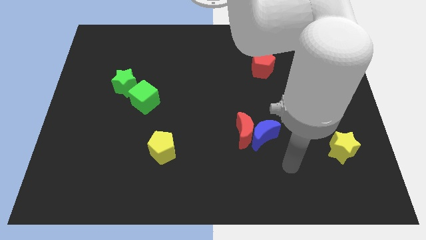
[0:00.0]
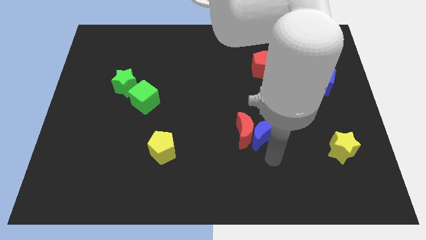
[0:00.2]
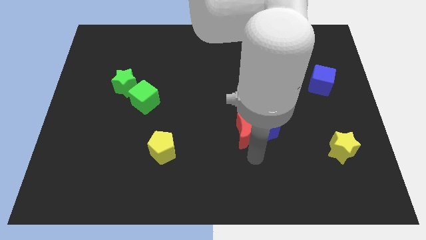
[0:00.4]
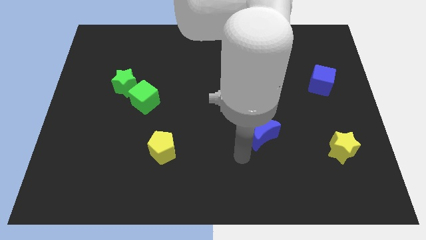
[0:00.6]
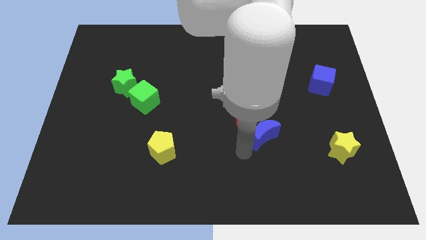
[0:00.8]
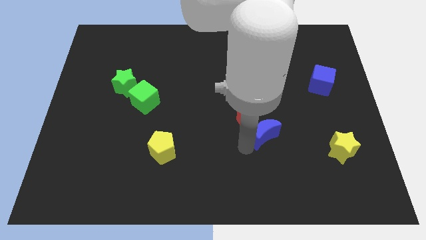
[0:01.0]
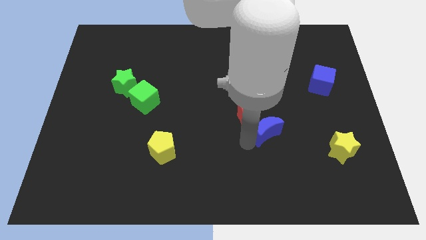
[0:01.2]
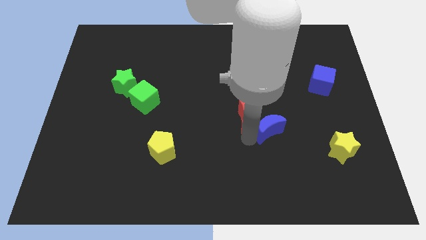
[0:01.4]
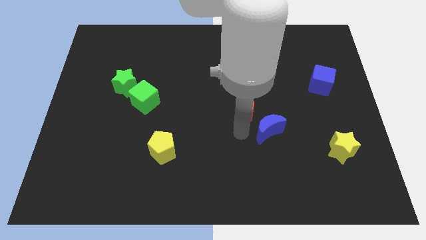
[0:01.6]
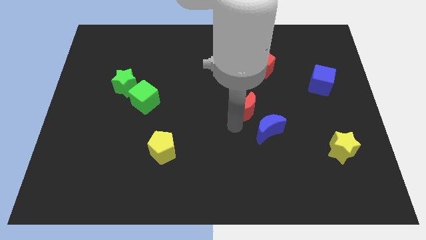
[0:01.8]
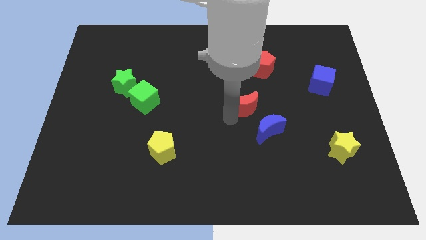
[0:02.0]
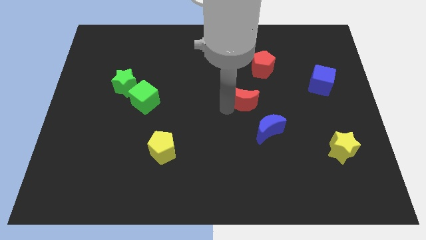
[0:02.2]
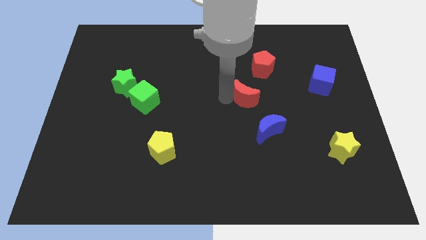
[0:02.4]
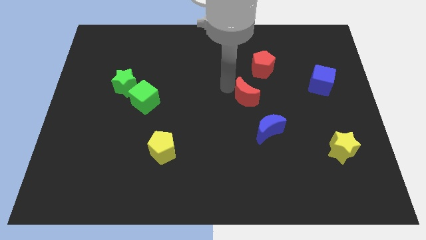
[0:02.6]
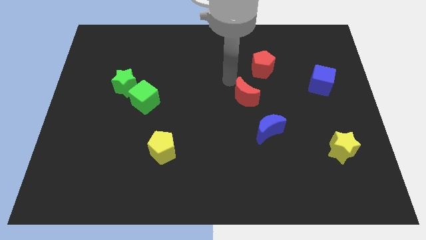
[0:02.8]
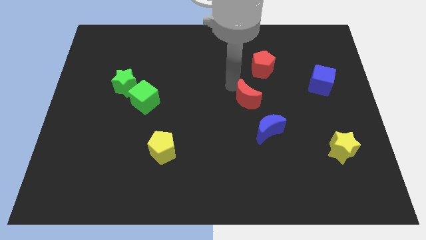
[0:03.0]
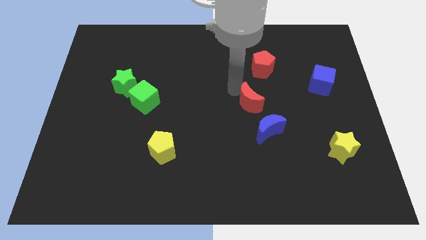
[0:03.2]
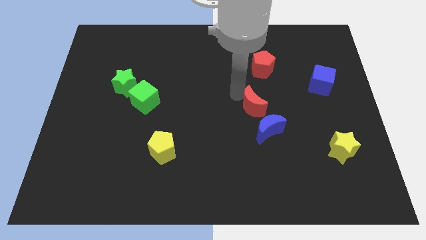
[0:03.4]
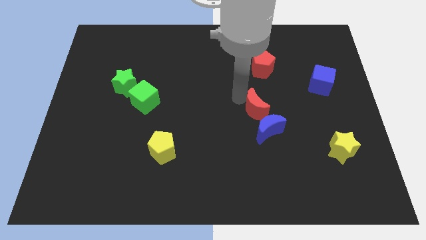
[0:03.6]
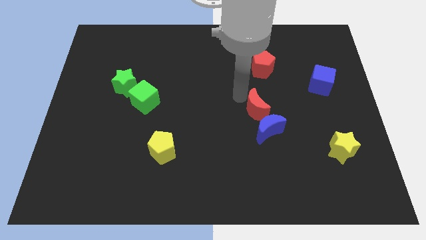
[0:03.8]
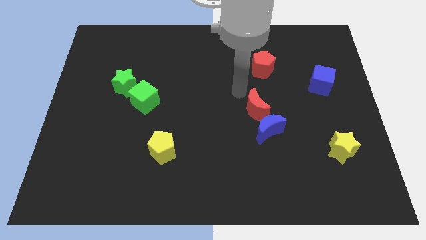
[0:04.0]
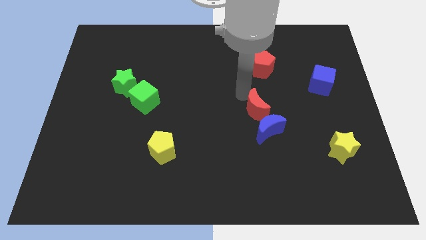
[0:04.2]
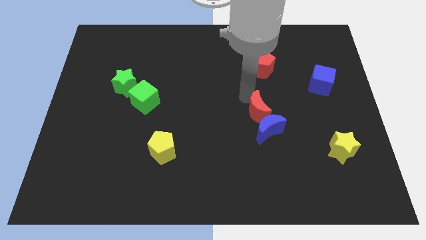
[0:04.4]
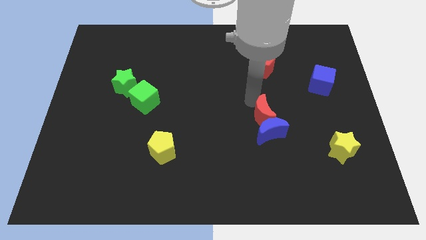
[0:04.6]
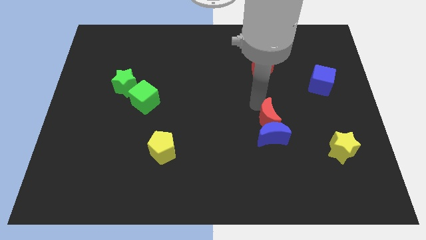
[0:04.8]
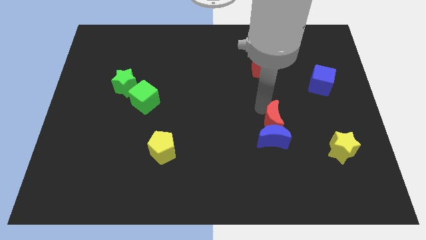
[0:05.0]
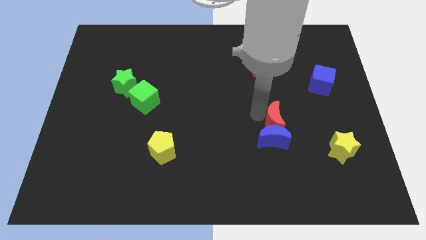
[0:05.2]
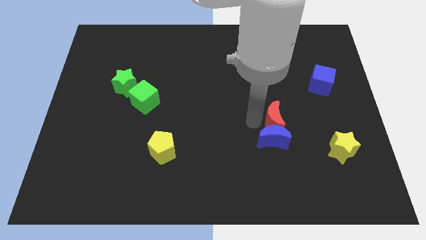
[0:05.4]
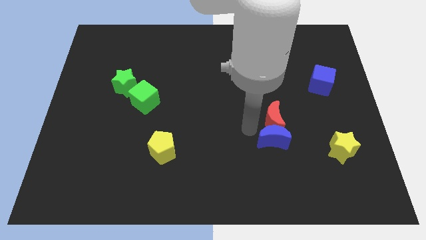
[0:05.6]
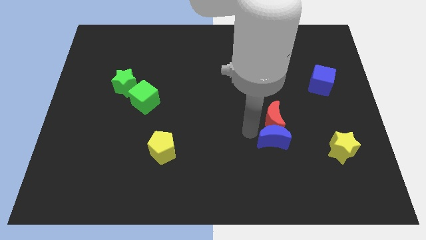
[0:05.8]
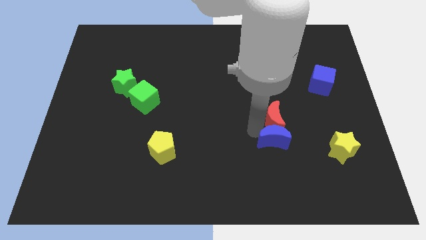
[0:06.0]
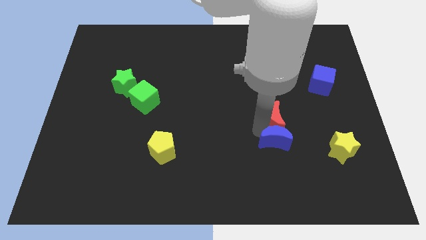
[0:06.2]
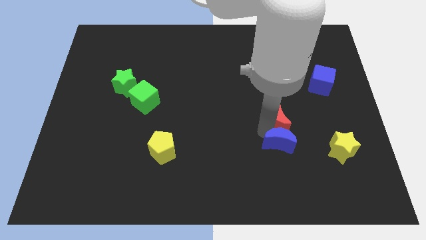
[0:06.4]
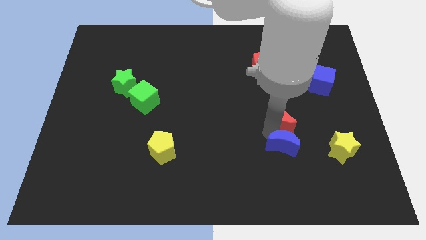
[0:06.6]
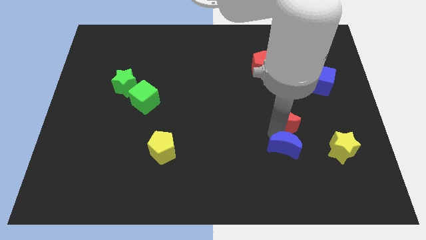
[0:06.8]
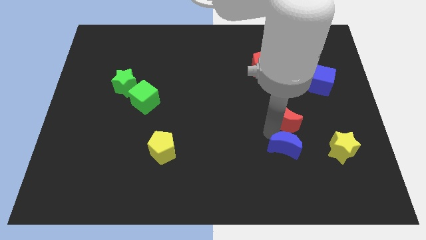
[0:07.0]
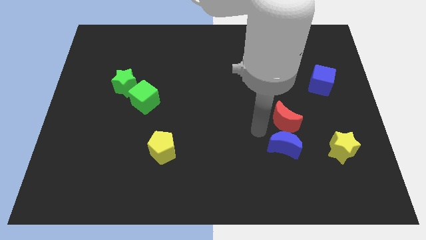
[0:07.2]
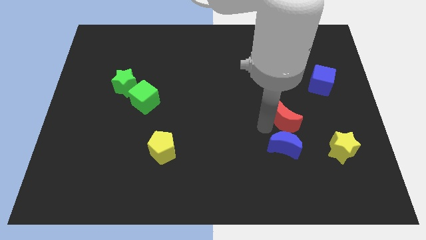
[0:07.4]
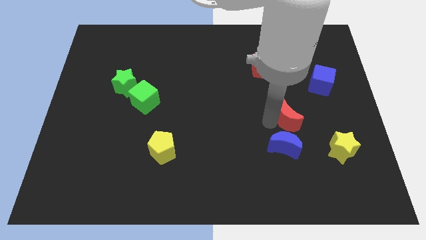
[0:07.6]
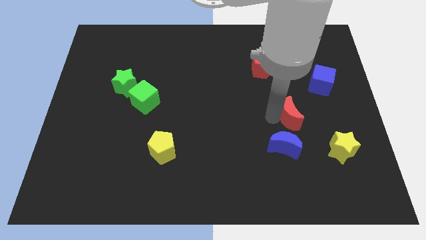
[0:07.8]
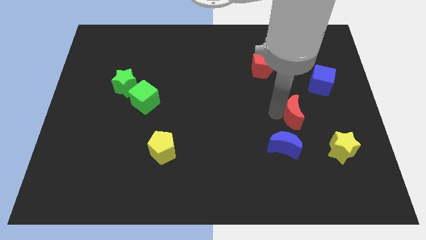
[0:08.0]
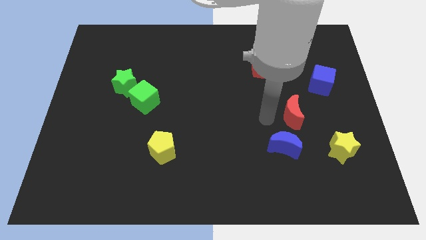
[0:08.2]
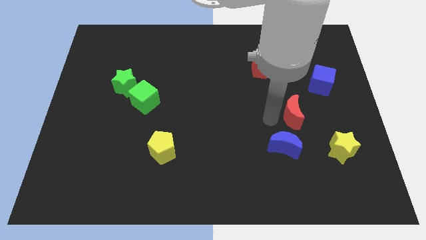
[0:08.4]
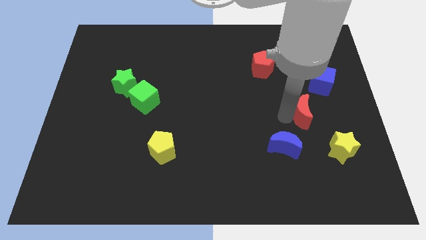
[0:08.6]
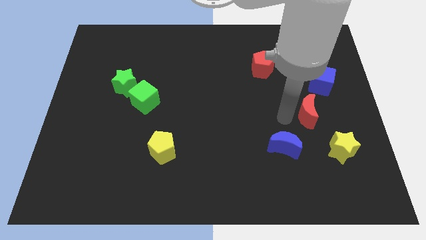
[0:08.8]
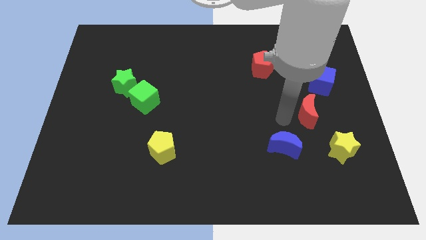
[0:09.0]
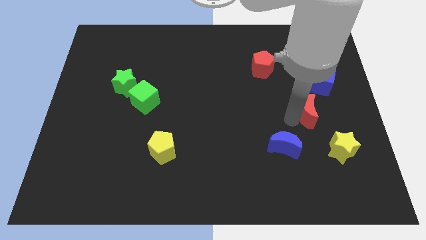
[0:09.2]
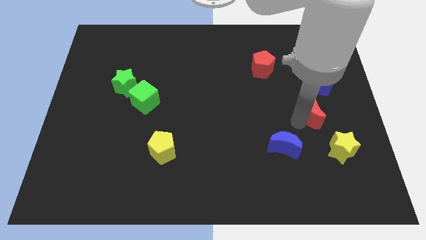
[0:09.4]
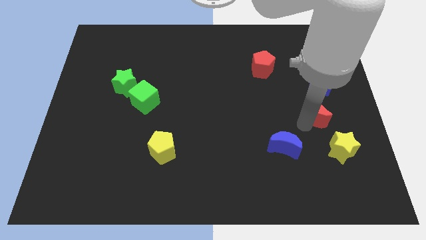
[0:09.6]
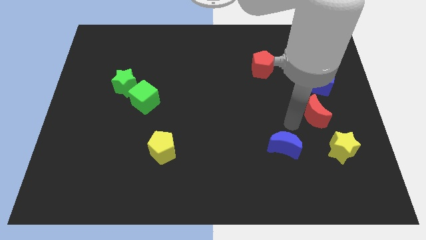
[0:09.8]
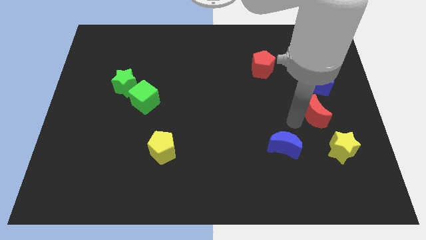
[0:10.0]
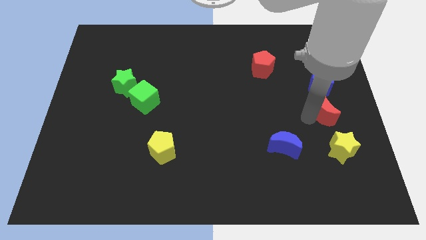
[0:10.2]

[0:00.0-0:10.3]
slide the red moon to the center right

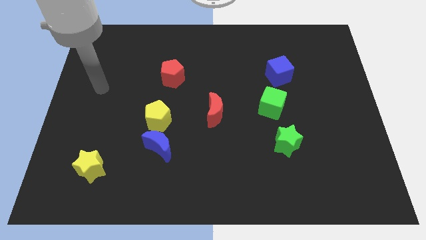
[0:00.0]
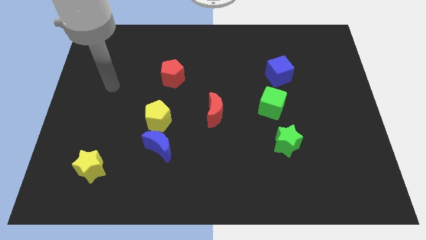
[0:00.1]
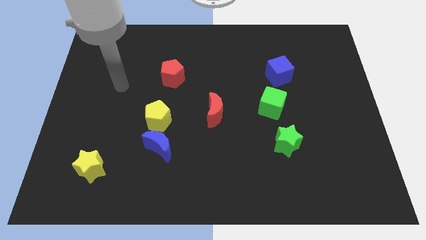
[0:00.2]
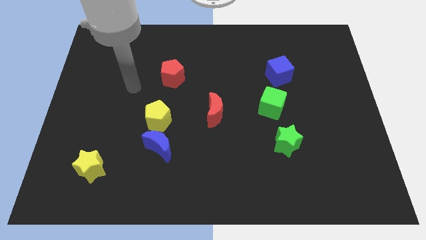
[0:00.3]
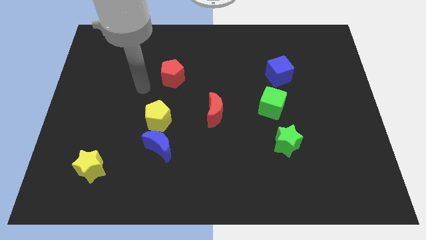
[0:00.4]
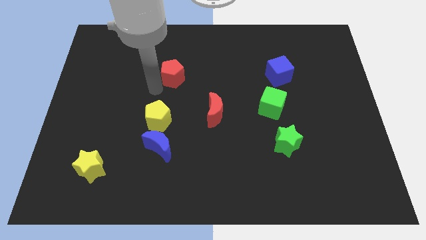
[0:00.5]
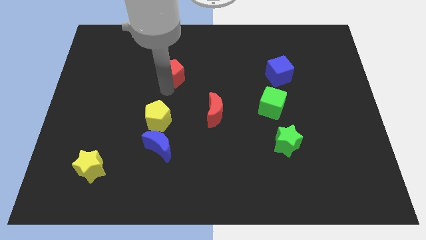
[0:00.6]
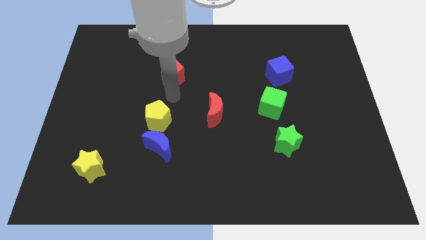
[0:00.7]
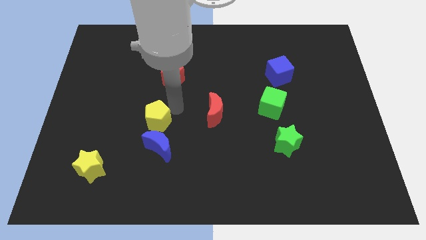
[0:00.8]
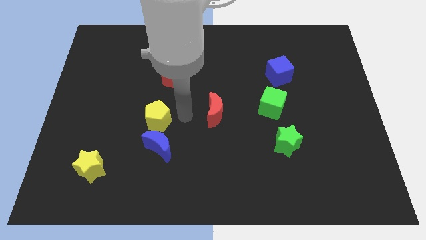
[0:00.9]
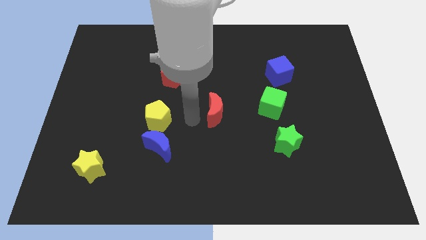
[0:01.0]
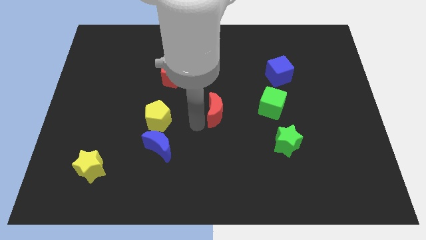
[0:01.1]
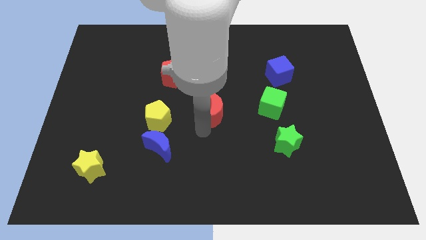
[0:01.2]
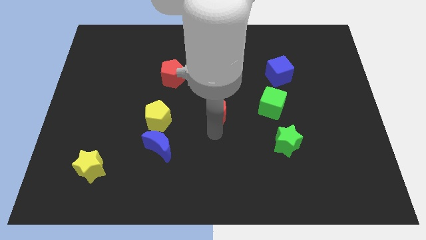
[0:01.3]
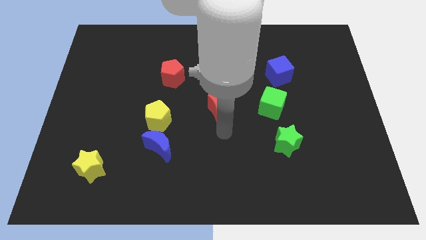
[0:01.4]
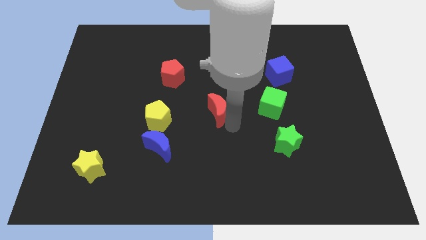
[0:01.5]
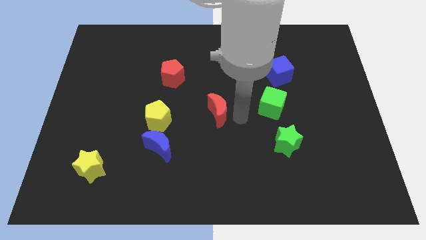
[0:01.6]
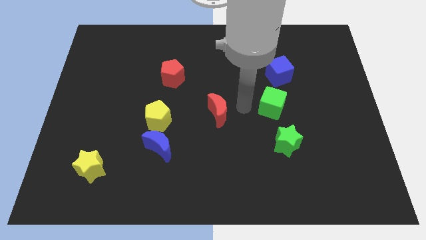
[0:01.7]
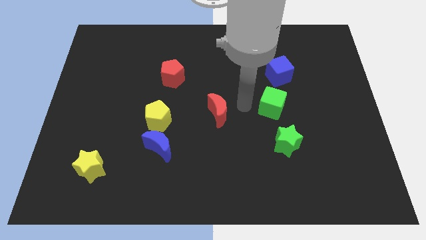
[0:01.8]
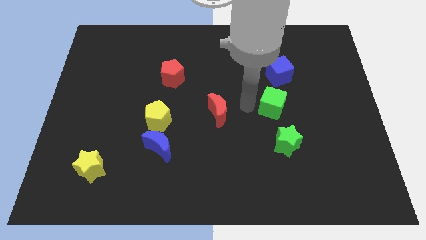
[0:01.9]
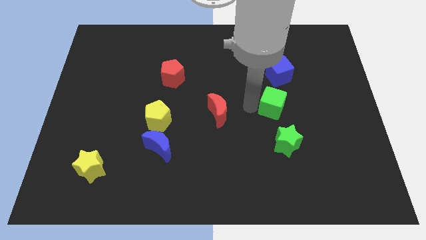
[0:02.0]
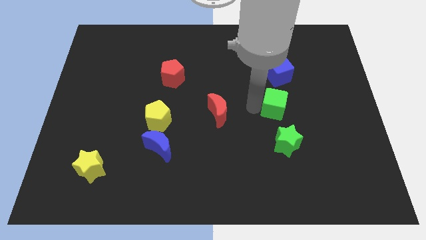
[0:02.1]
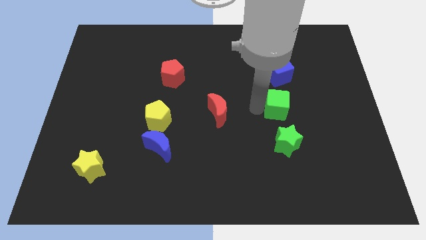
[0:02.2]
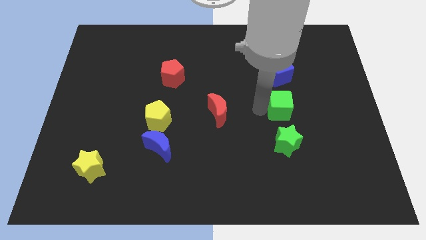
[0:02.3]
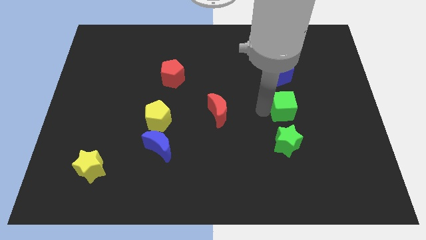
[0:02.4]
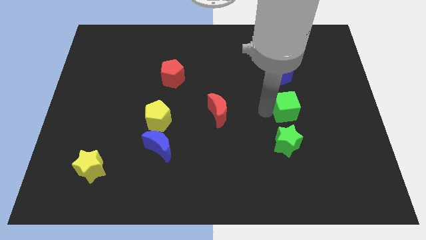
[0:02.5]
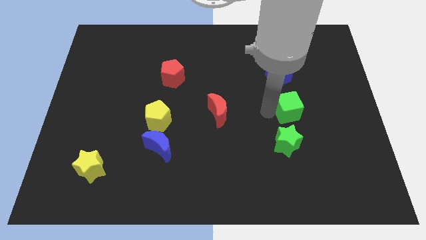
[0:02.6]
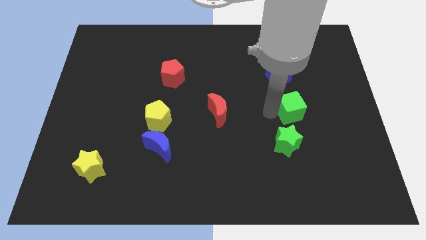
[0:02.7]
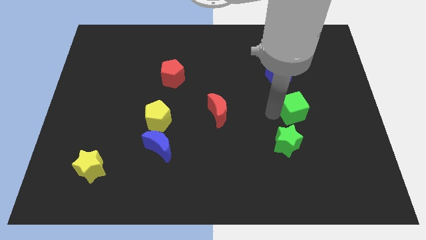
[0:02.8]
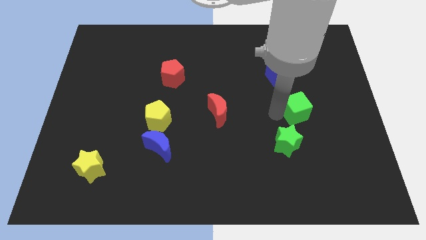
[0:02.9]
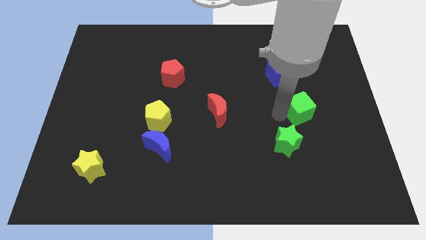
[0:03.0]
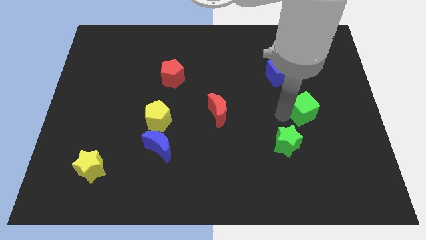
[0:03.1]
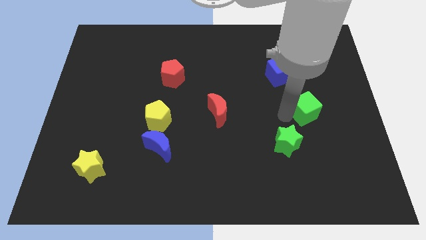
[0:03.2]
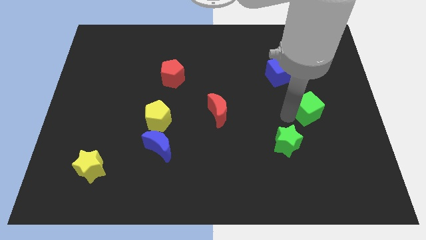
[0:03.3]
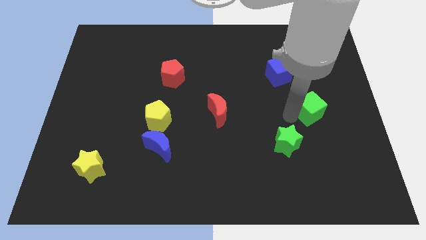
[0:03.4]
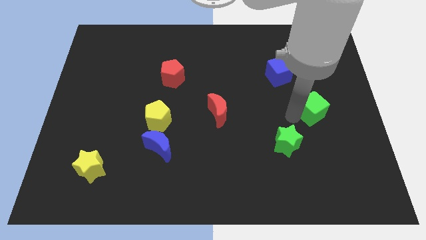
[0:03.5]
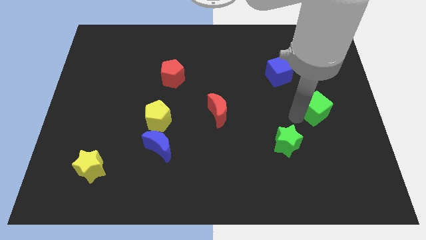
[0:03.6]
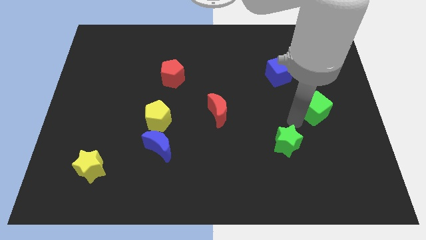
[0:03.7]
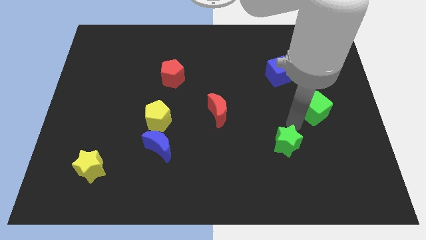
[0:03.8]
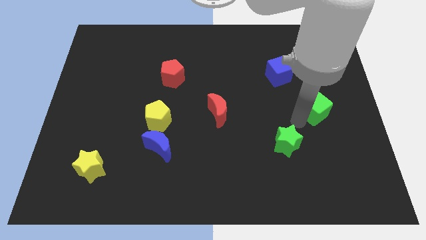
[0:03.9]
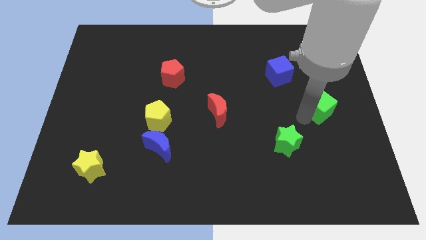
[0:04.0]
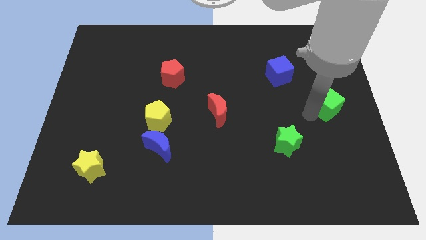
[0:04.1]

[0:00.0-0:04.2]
put the green cube to the center right
